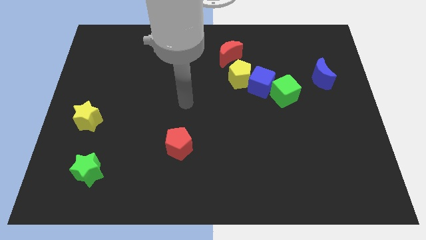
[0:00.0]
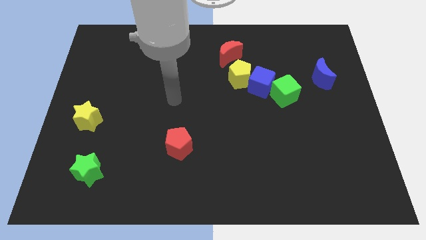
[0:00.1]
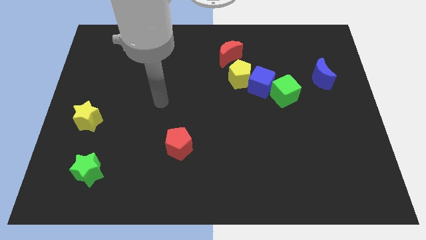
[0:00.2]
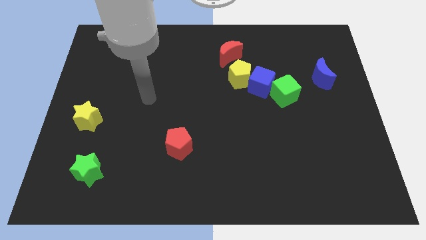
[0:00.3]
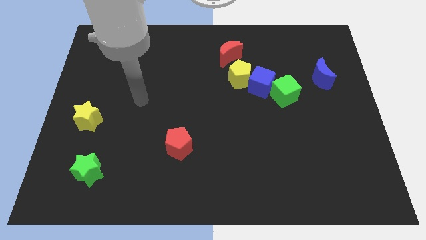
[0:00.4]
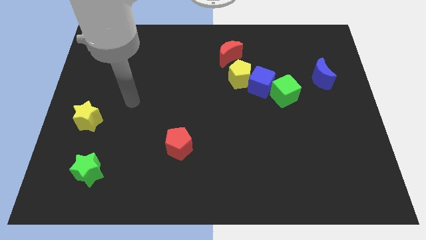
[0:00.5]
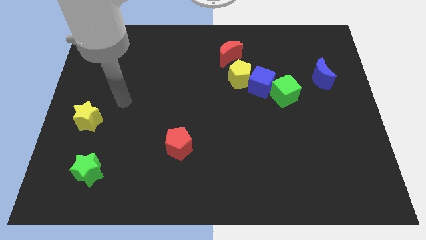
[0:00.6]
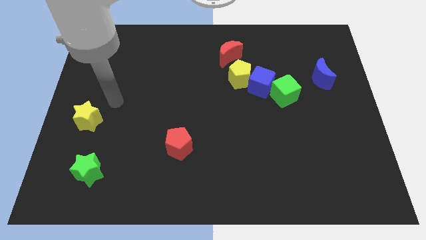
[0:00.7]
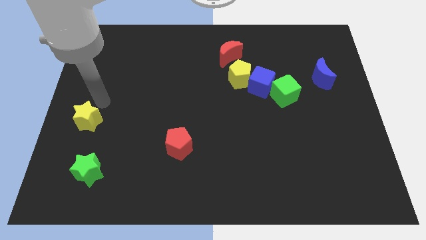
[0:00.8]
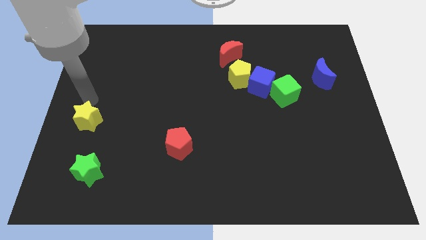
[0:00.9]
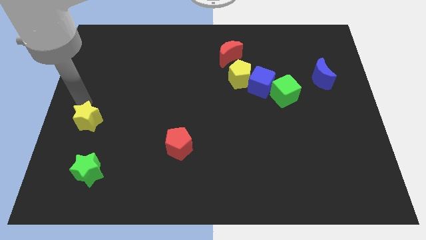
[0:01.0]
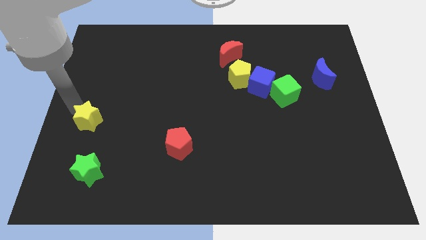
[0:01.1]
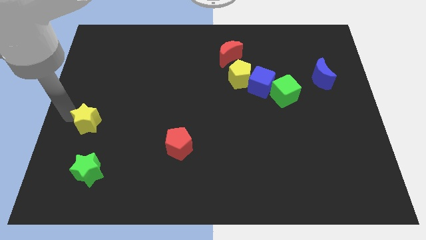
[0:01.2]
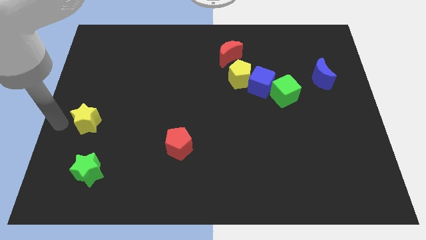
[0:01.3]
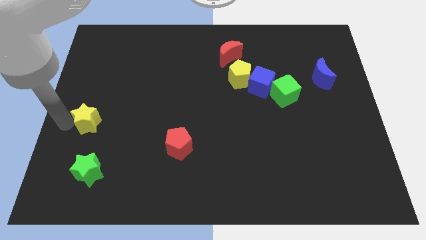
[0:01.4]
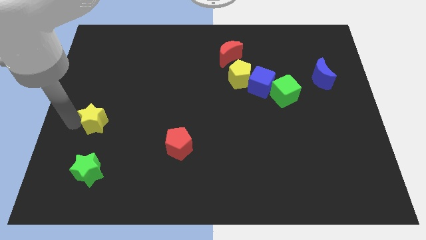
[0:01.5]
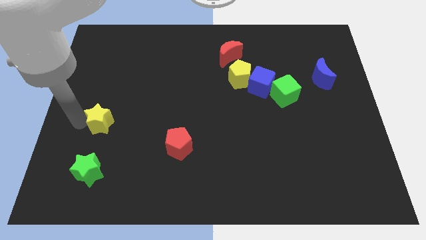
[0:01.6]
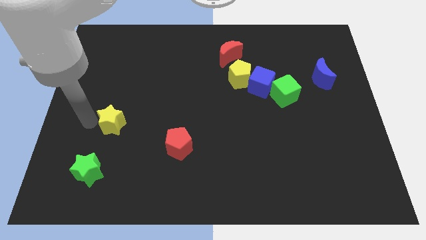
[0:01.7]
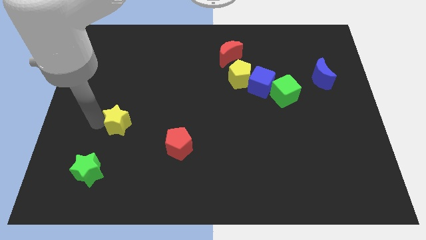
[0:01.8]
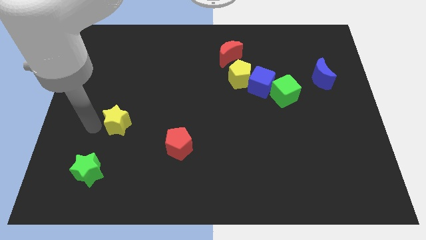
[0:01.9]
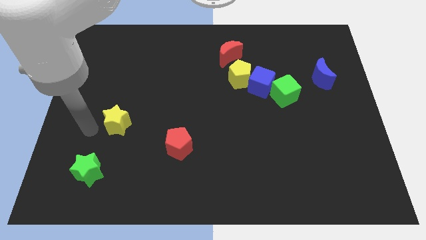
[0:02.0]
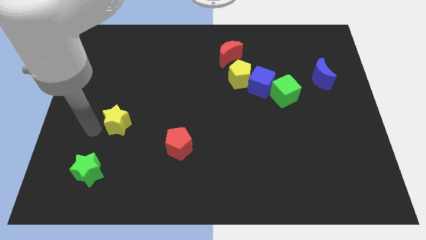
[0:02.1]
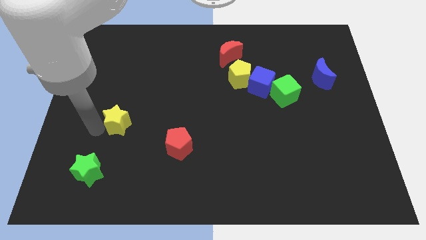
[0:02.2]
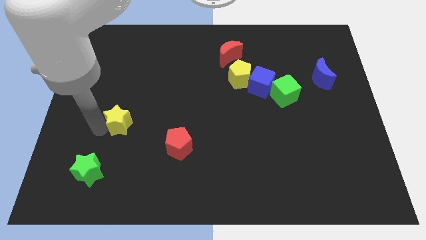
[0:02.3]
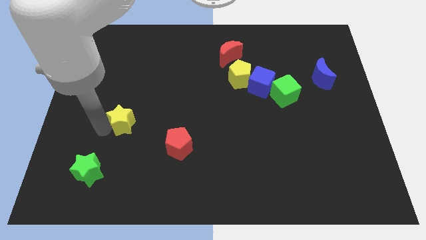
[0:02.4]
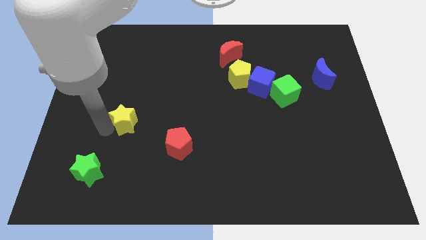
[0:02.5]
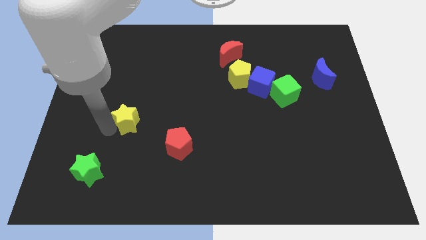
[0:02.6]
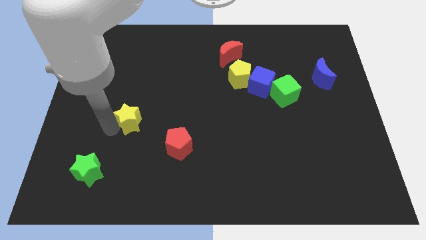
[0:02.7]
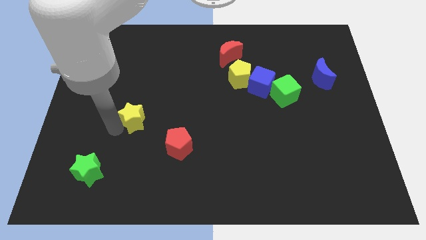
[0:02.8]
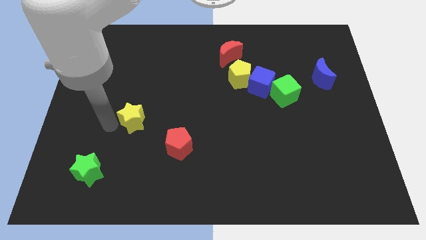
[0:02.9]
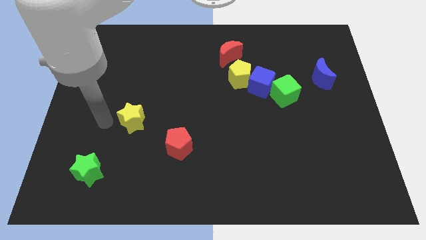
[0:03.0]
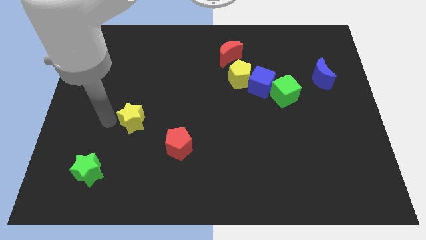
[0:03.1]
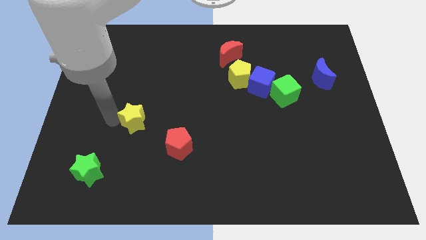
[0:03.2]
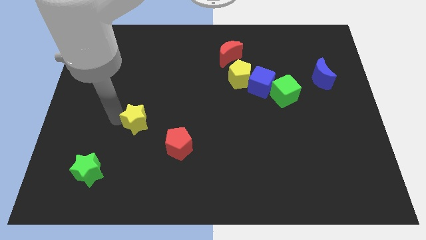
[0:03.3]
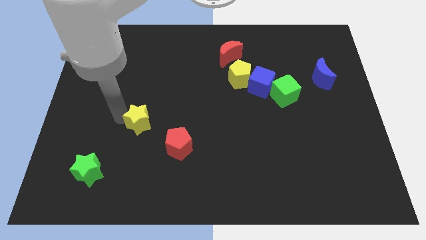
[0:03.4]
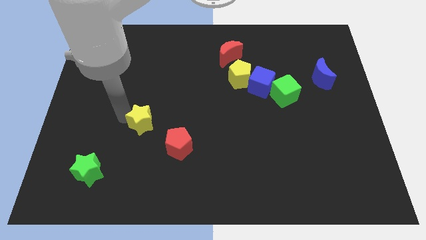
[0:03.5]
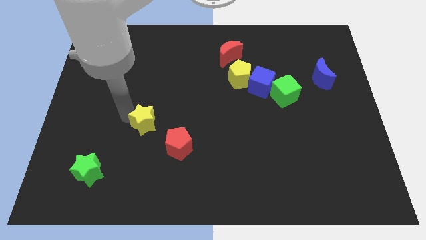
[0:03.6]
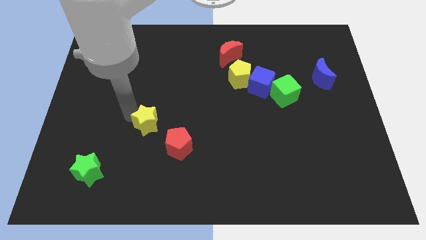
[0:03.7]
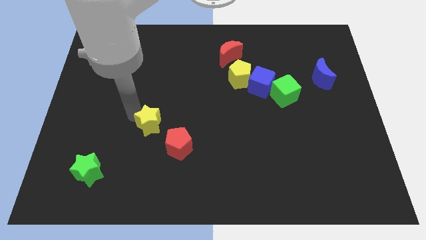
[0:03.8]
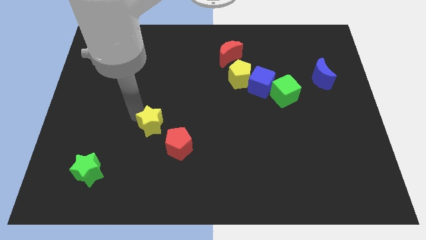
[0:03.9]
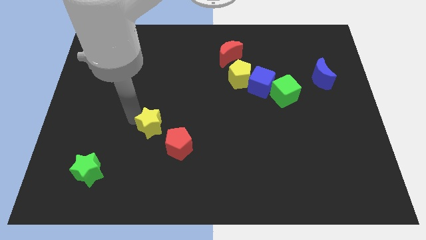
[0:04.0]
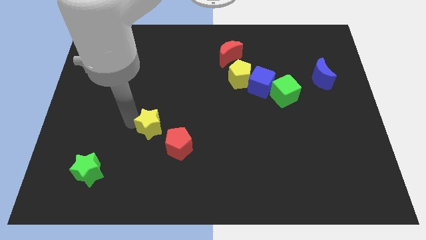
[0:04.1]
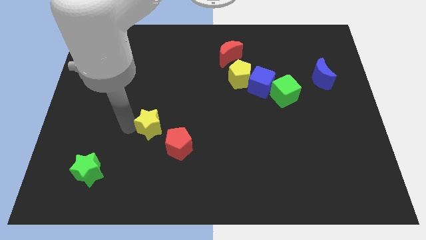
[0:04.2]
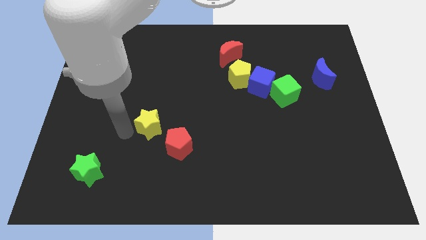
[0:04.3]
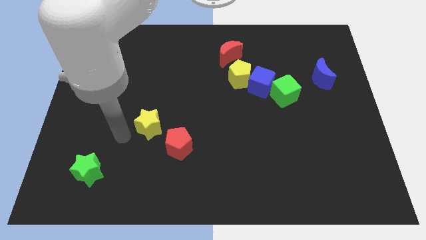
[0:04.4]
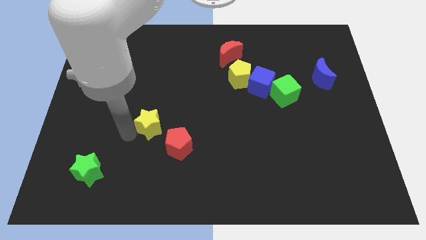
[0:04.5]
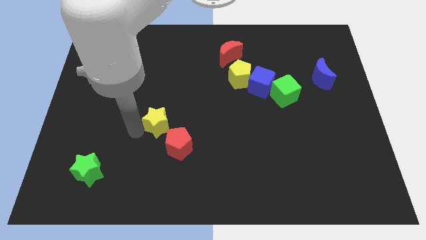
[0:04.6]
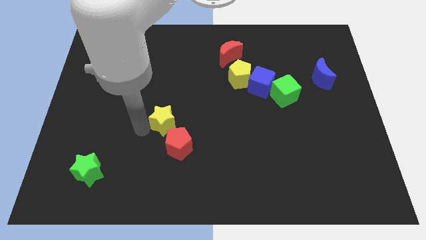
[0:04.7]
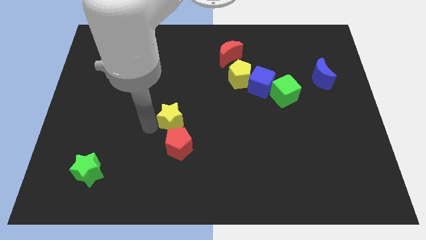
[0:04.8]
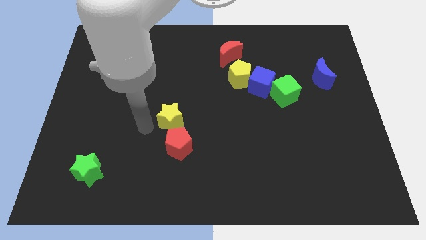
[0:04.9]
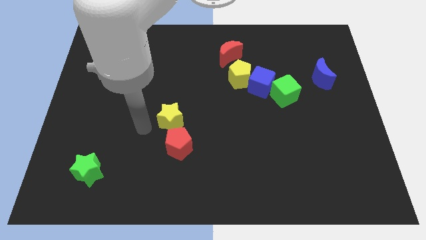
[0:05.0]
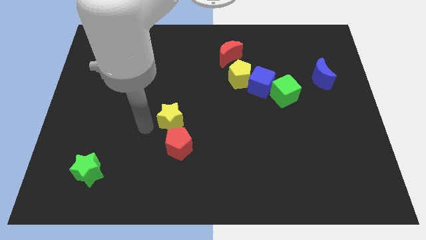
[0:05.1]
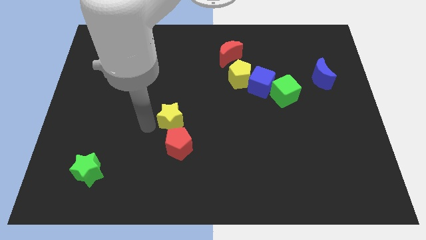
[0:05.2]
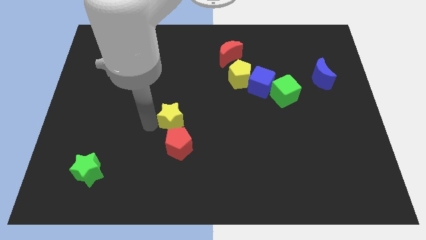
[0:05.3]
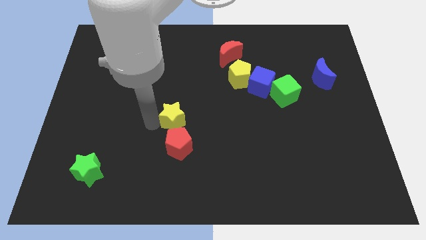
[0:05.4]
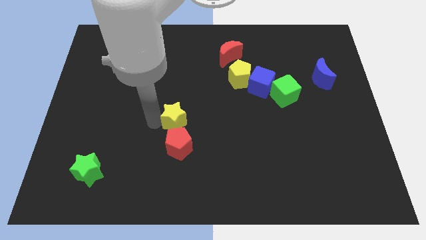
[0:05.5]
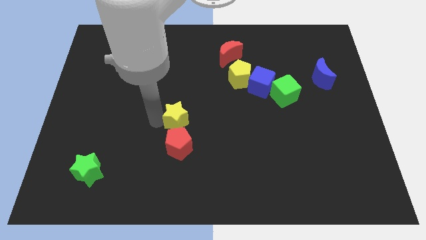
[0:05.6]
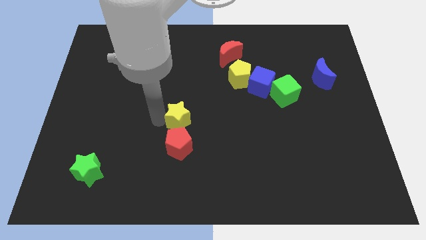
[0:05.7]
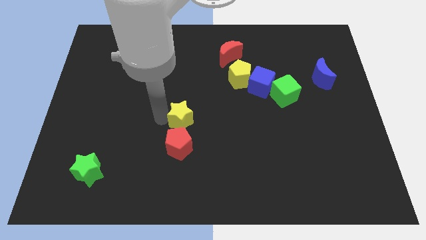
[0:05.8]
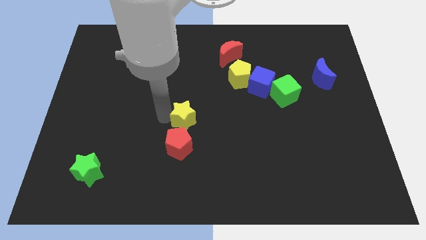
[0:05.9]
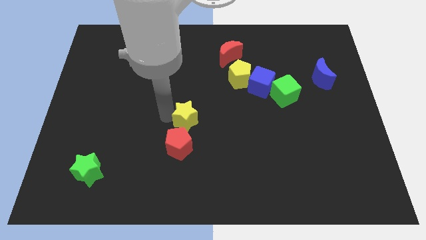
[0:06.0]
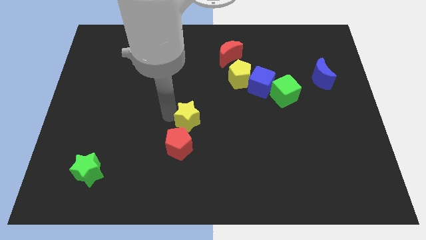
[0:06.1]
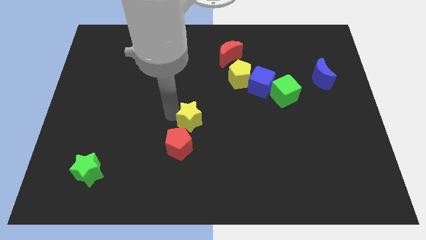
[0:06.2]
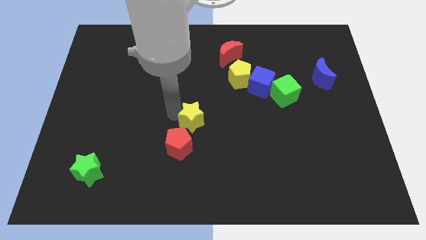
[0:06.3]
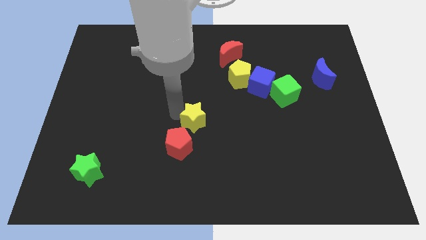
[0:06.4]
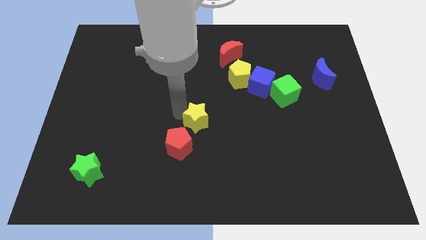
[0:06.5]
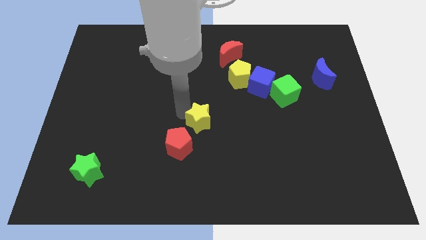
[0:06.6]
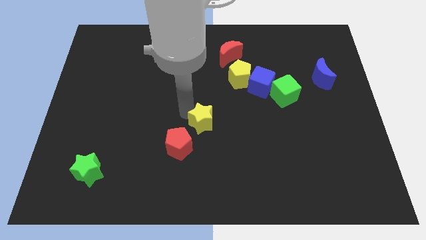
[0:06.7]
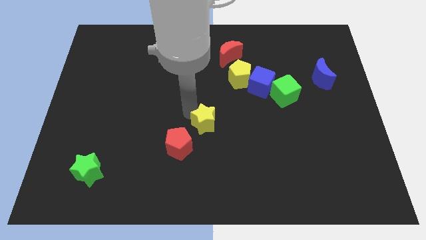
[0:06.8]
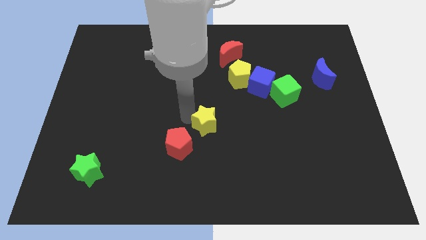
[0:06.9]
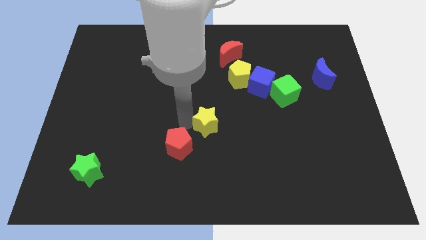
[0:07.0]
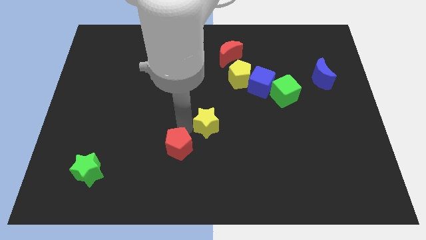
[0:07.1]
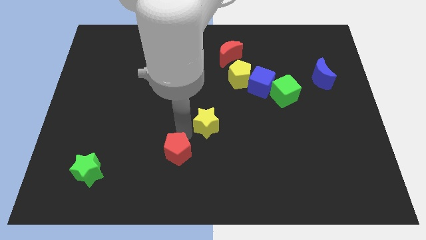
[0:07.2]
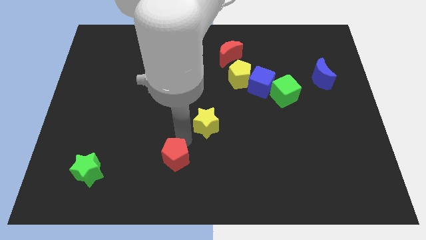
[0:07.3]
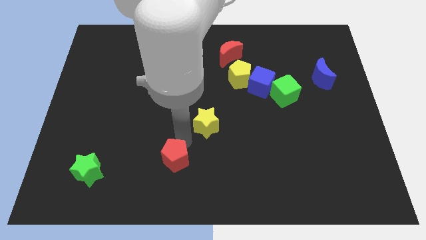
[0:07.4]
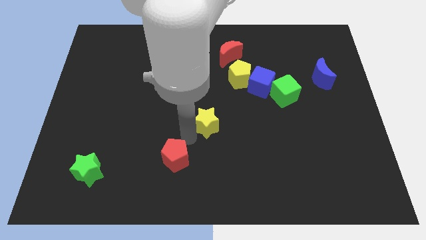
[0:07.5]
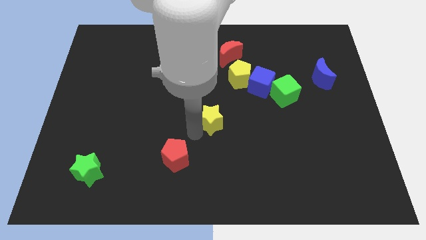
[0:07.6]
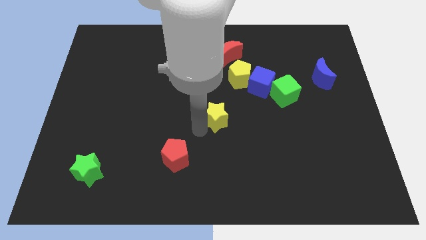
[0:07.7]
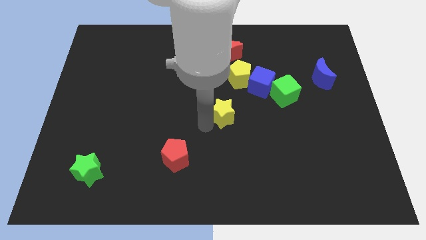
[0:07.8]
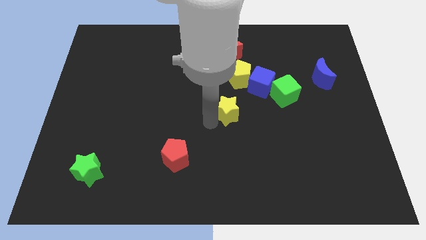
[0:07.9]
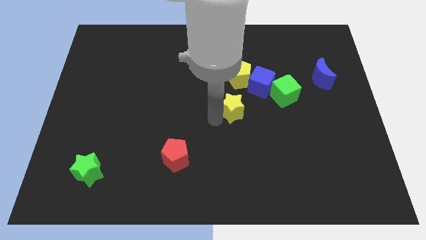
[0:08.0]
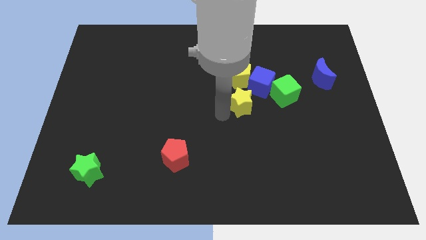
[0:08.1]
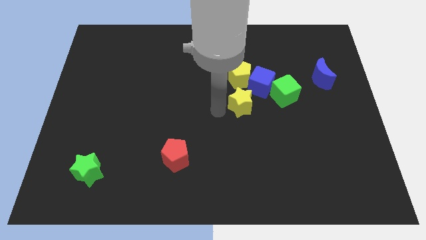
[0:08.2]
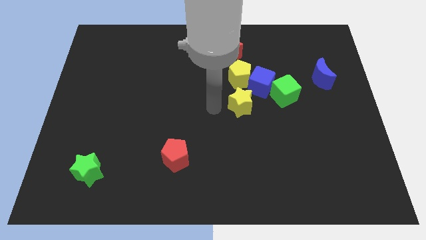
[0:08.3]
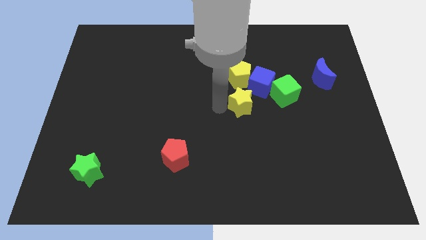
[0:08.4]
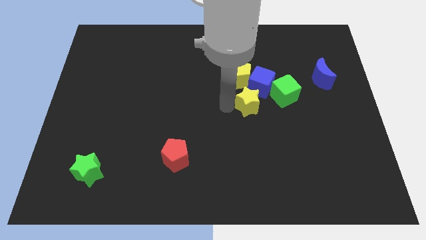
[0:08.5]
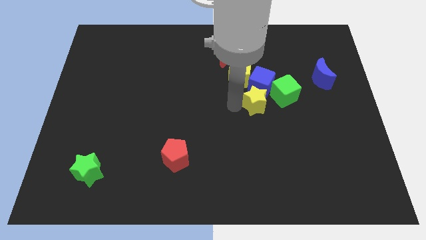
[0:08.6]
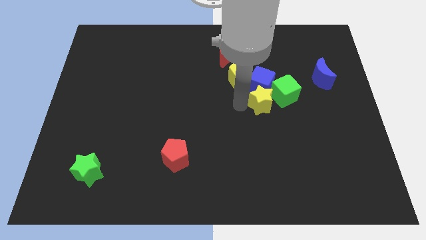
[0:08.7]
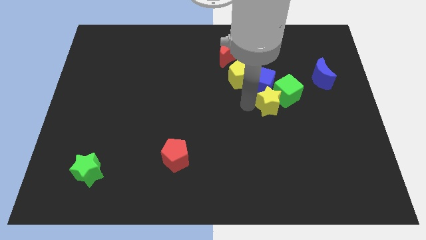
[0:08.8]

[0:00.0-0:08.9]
move the yellow star close to the green cube
